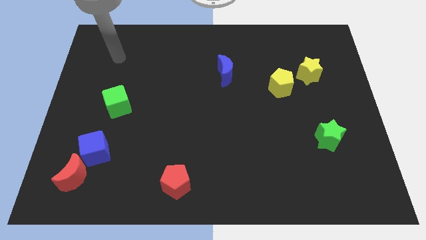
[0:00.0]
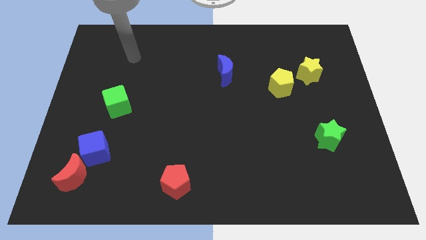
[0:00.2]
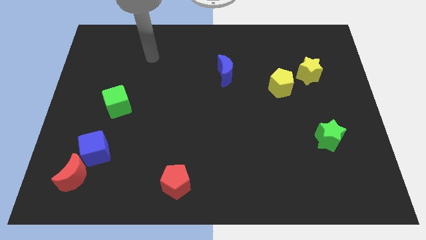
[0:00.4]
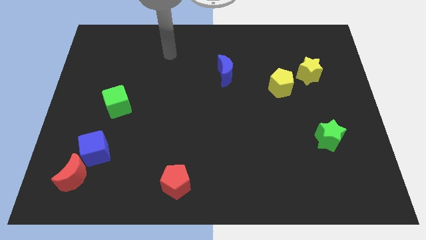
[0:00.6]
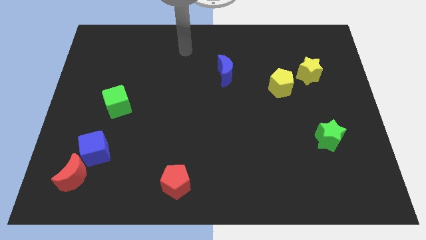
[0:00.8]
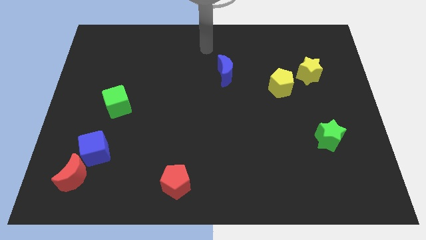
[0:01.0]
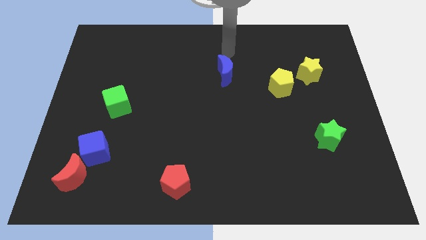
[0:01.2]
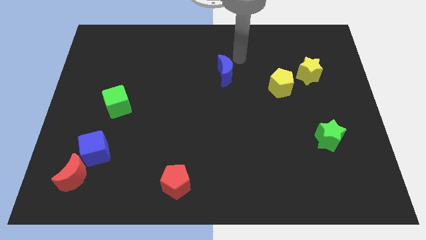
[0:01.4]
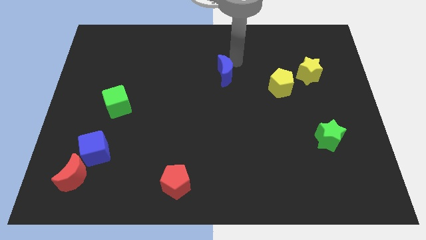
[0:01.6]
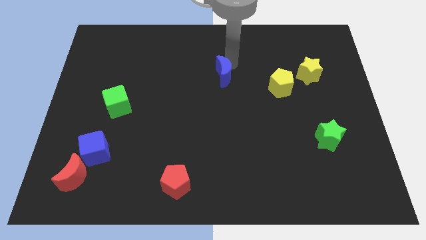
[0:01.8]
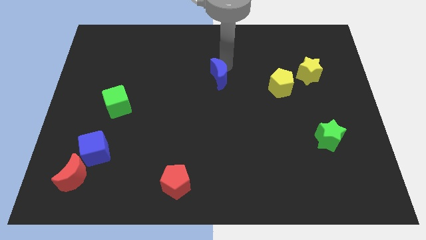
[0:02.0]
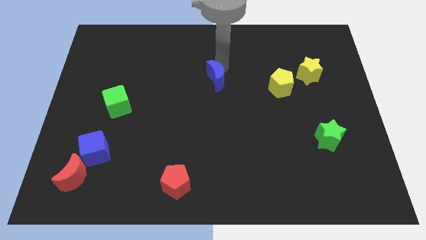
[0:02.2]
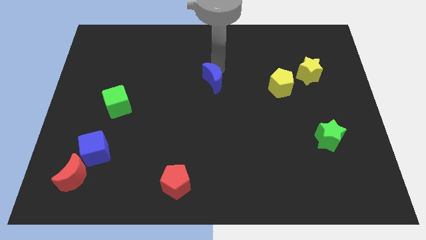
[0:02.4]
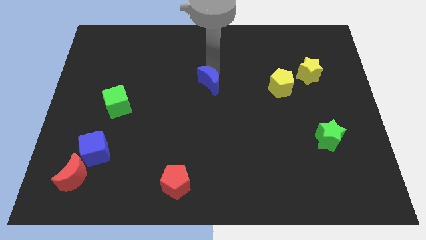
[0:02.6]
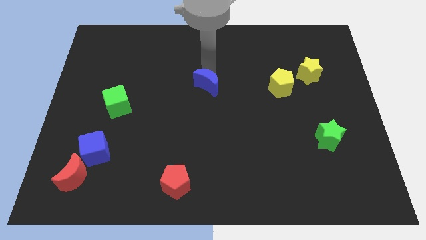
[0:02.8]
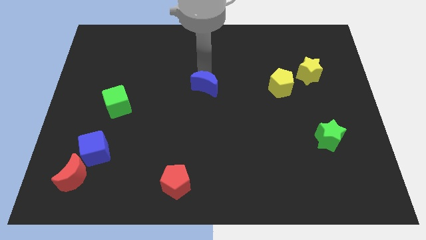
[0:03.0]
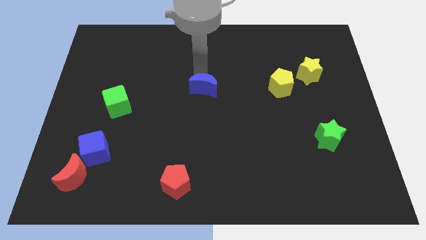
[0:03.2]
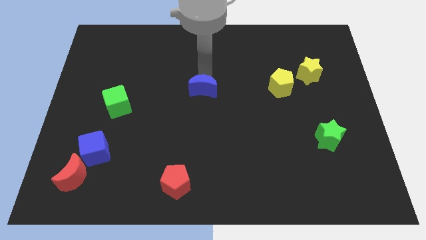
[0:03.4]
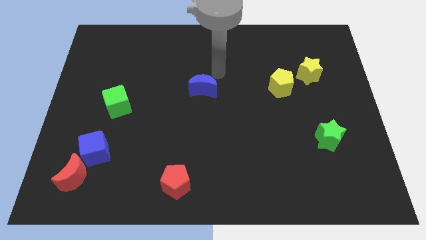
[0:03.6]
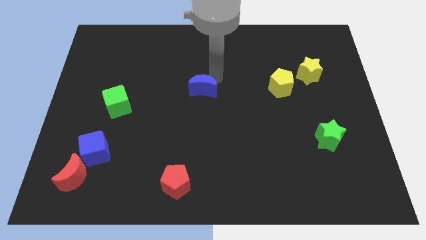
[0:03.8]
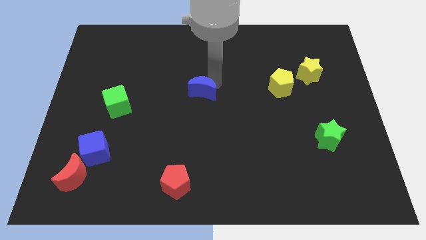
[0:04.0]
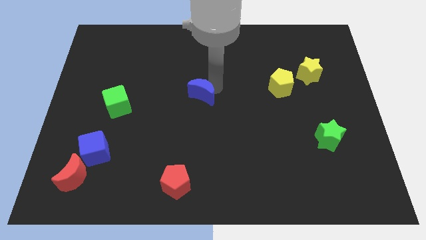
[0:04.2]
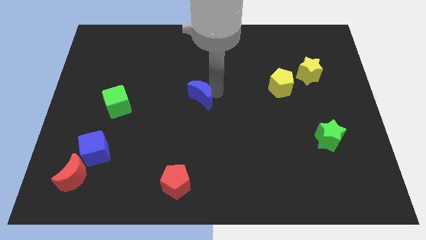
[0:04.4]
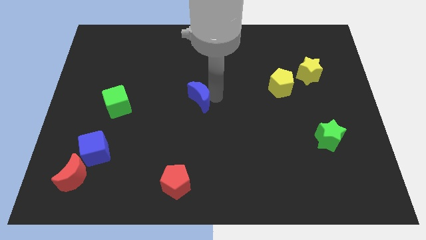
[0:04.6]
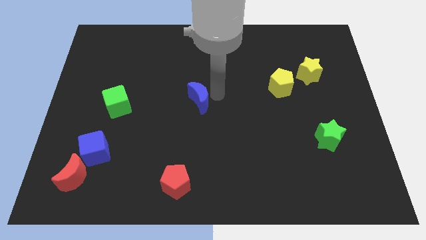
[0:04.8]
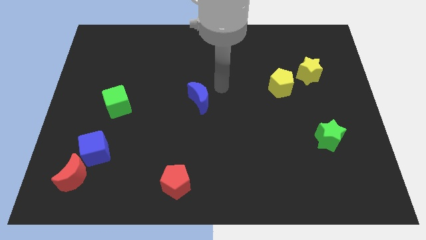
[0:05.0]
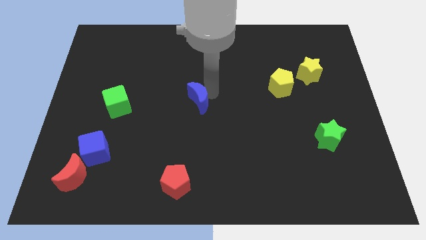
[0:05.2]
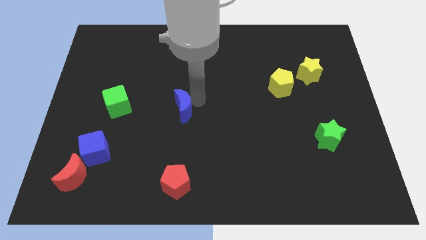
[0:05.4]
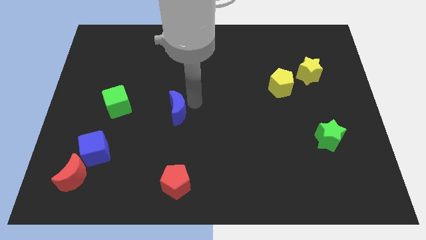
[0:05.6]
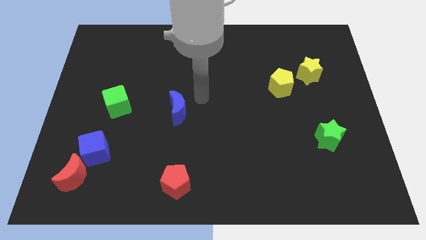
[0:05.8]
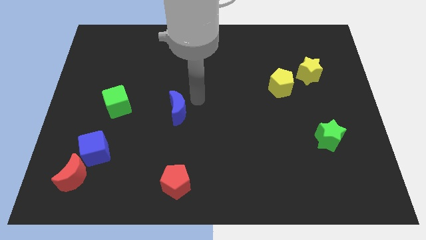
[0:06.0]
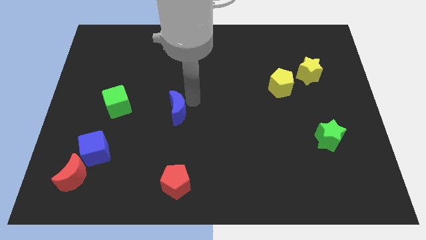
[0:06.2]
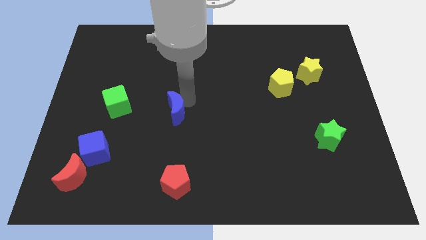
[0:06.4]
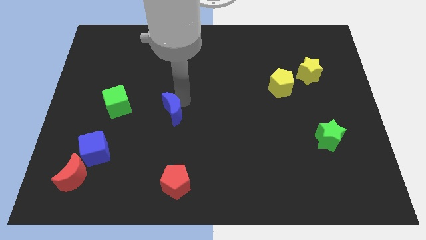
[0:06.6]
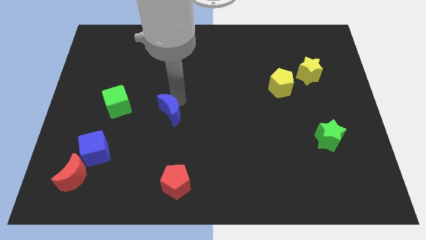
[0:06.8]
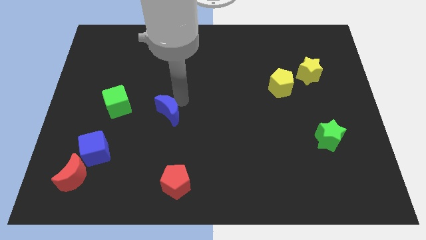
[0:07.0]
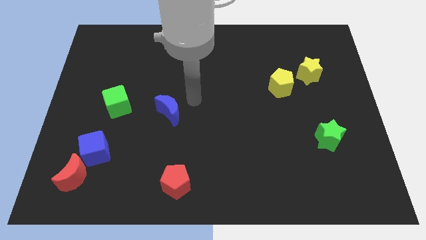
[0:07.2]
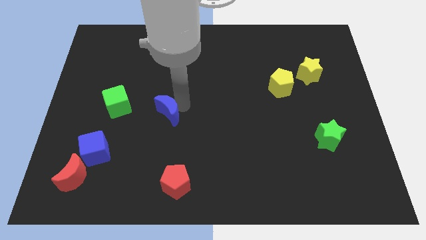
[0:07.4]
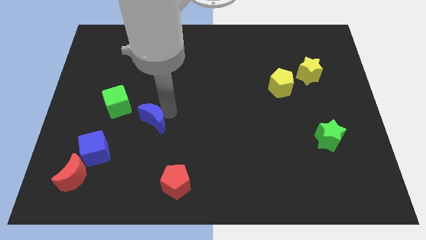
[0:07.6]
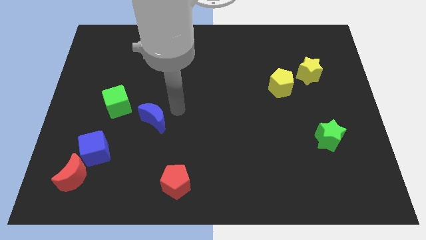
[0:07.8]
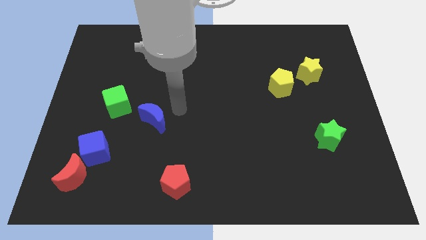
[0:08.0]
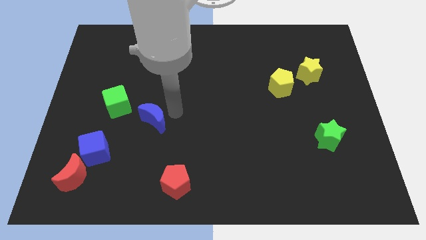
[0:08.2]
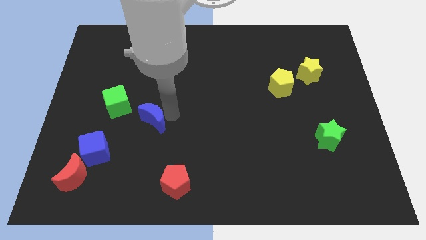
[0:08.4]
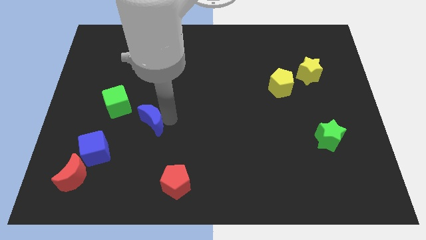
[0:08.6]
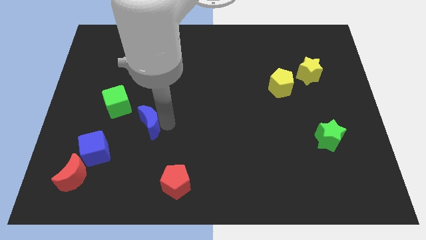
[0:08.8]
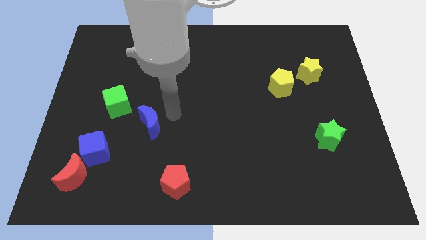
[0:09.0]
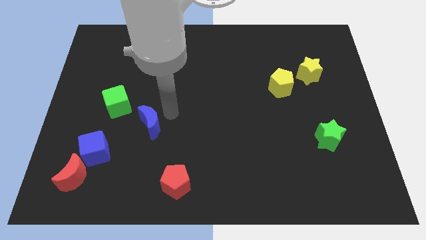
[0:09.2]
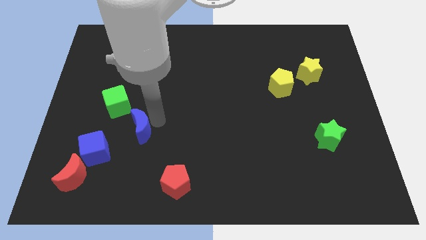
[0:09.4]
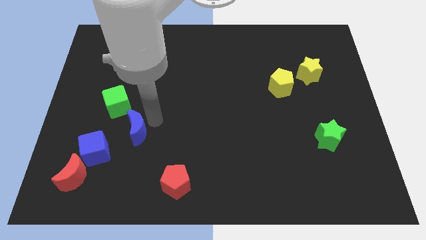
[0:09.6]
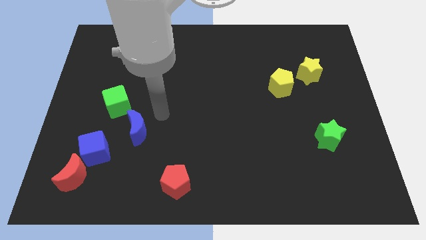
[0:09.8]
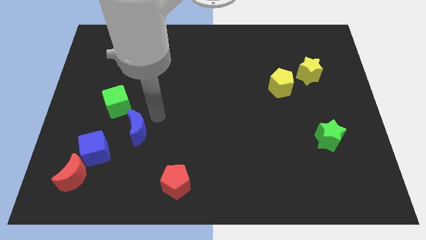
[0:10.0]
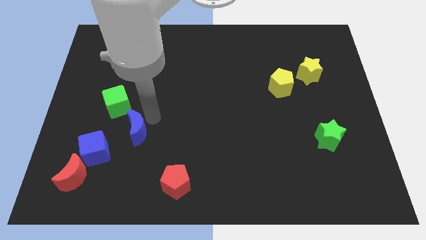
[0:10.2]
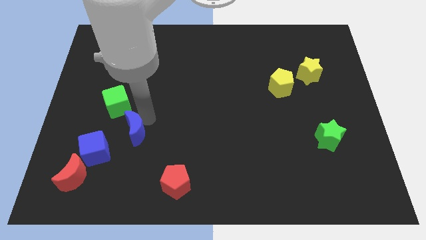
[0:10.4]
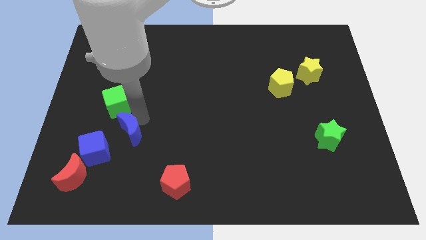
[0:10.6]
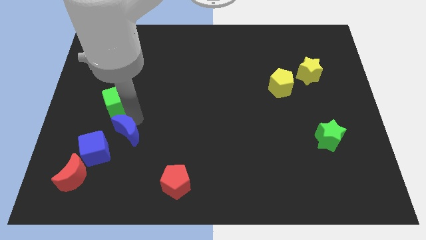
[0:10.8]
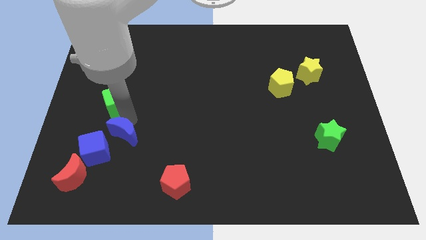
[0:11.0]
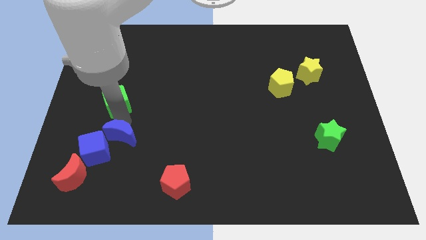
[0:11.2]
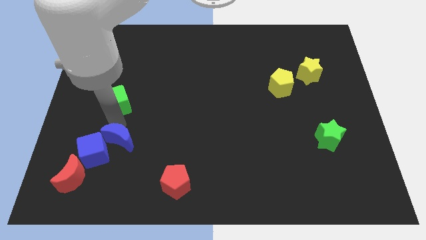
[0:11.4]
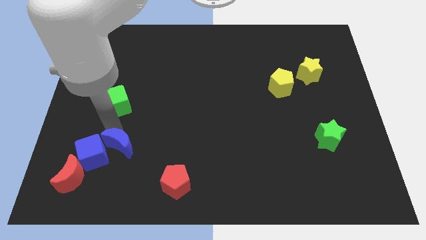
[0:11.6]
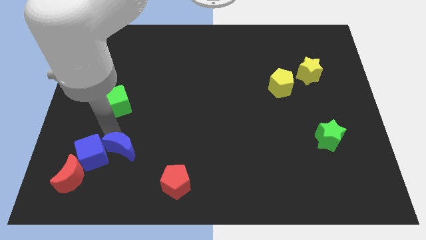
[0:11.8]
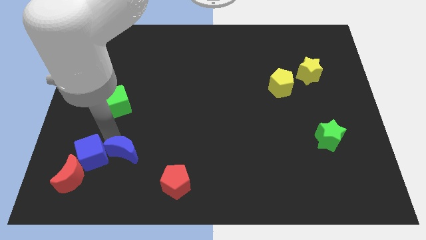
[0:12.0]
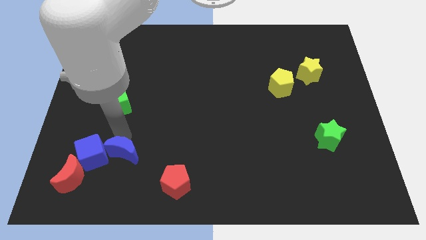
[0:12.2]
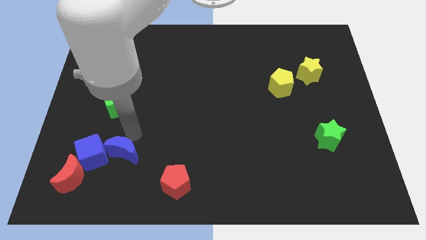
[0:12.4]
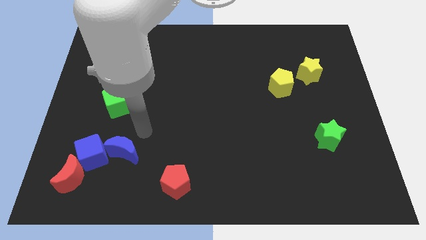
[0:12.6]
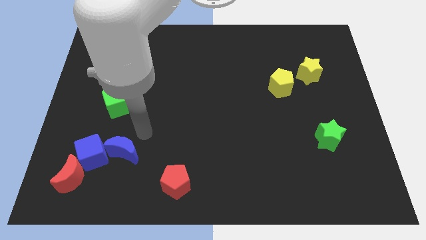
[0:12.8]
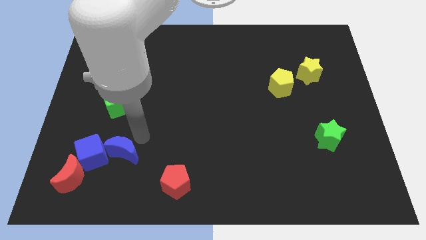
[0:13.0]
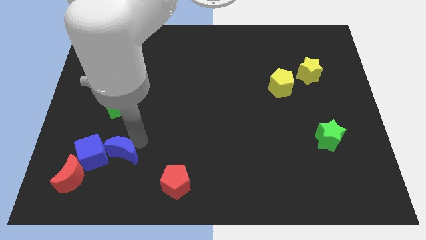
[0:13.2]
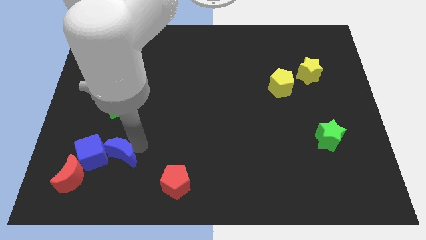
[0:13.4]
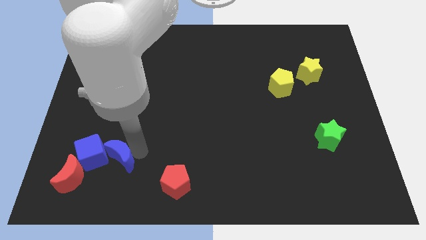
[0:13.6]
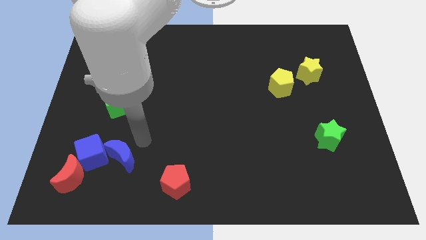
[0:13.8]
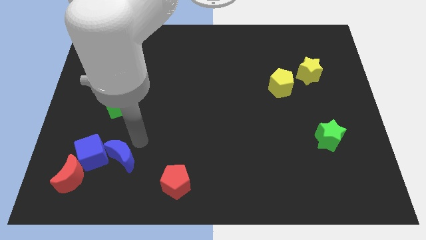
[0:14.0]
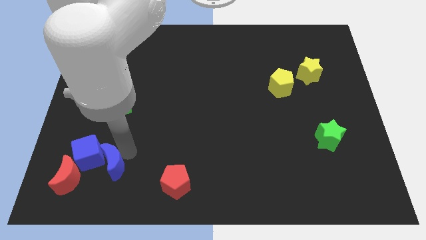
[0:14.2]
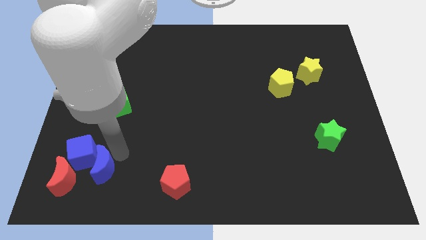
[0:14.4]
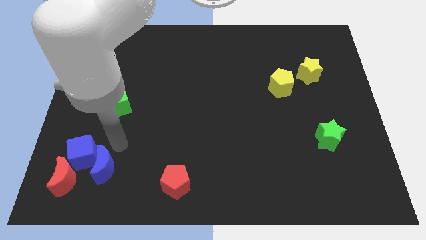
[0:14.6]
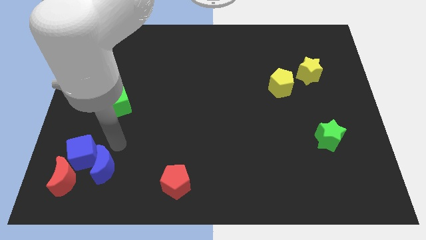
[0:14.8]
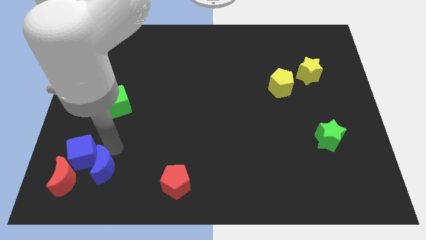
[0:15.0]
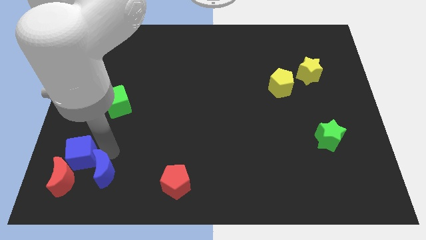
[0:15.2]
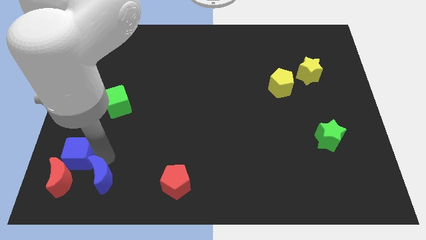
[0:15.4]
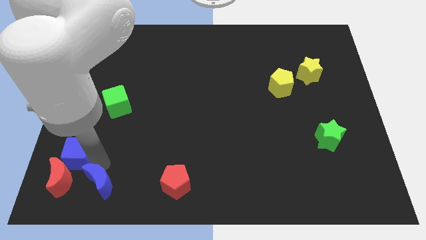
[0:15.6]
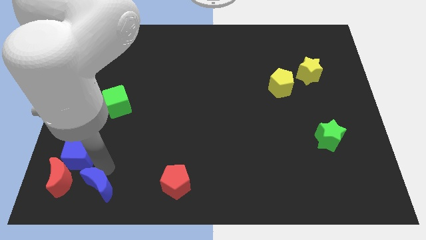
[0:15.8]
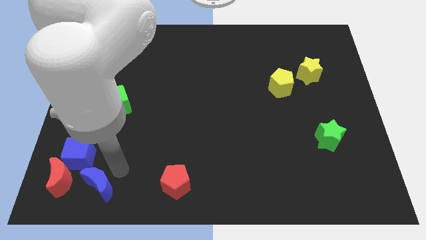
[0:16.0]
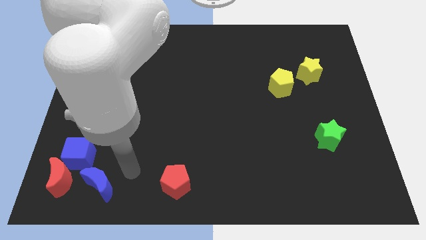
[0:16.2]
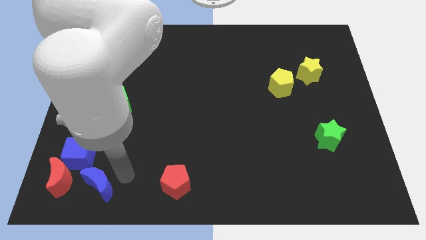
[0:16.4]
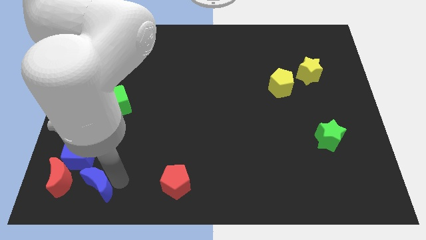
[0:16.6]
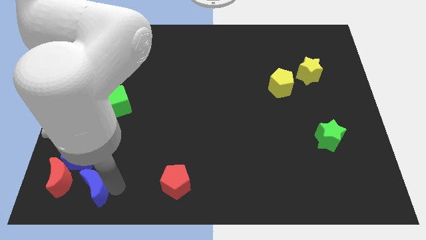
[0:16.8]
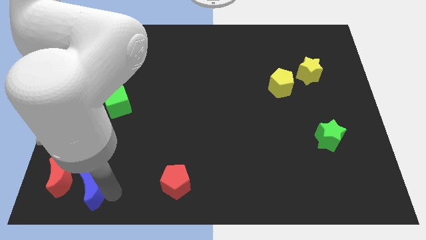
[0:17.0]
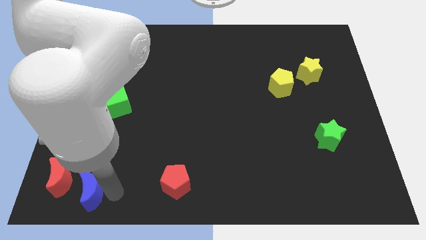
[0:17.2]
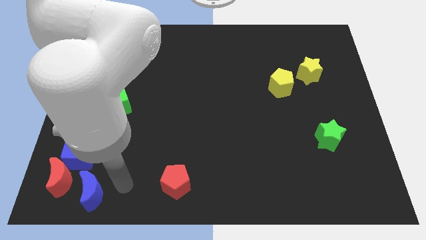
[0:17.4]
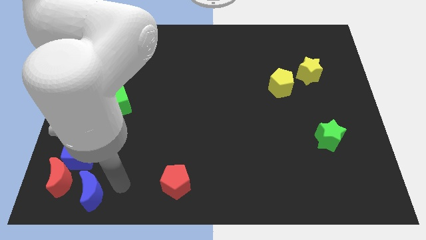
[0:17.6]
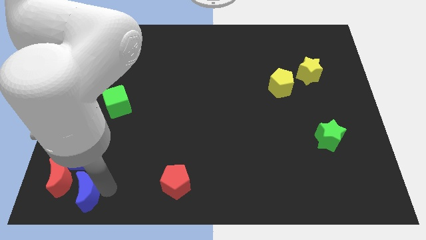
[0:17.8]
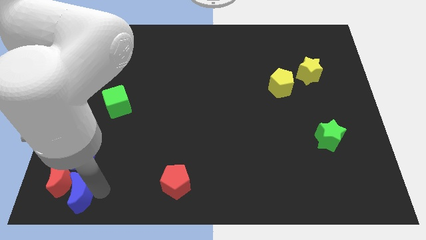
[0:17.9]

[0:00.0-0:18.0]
push the blue moon to the lower left corner
